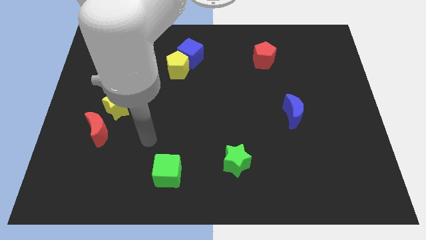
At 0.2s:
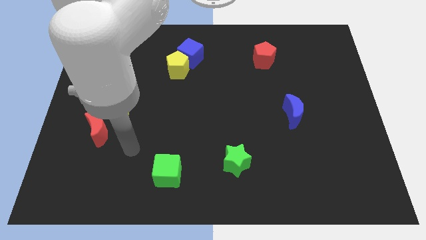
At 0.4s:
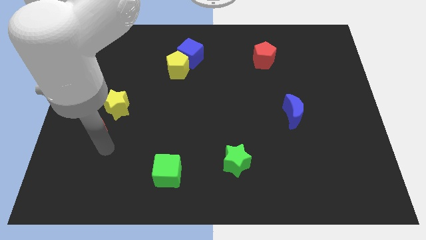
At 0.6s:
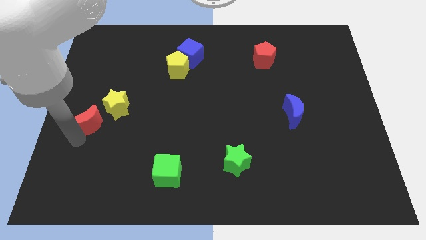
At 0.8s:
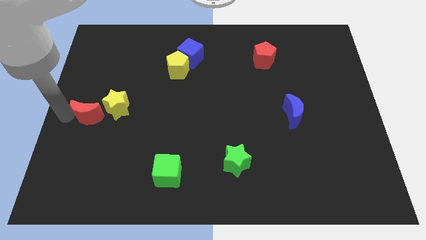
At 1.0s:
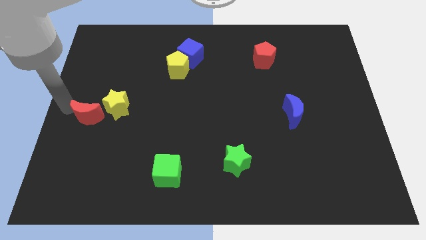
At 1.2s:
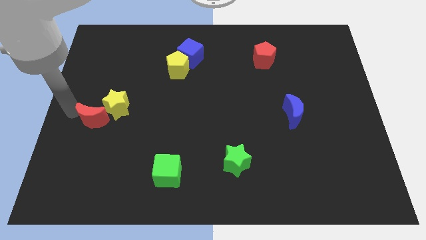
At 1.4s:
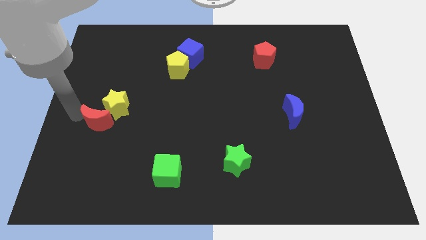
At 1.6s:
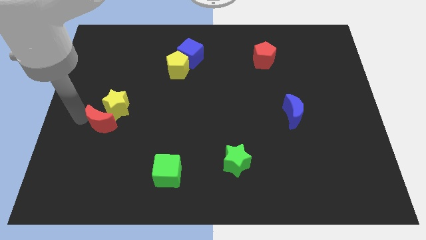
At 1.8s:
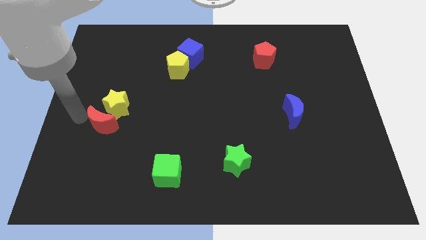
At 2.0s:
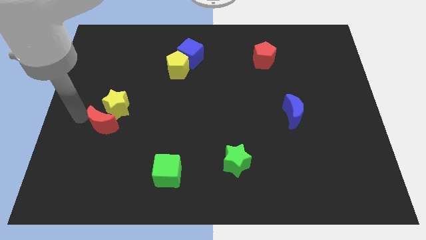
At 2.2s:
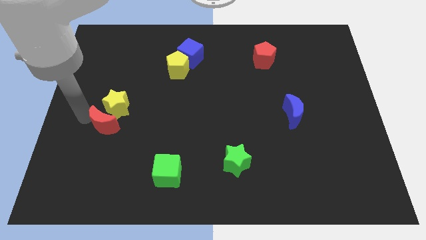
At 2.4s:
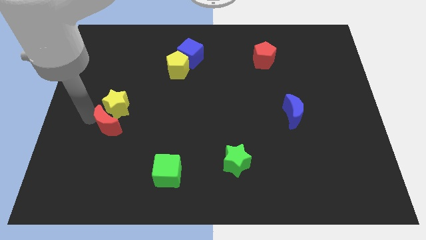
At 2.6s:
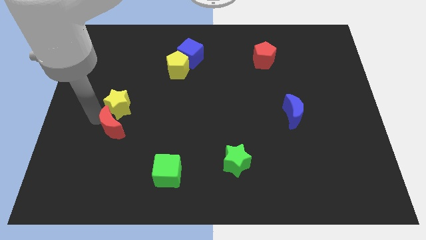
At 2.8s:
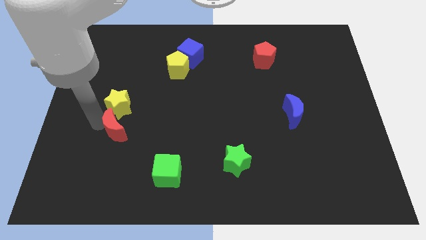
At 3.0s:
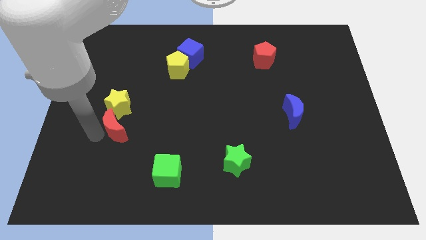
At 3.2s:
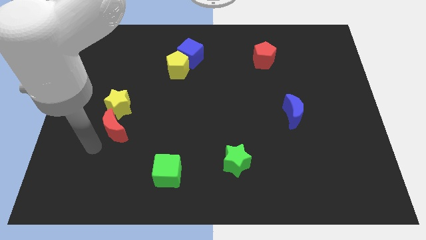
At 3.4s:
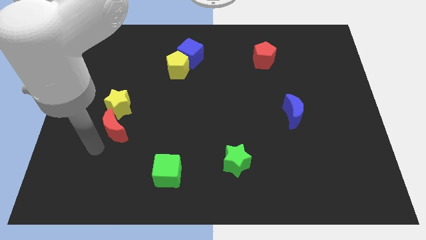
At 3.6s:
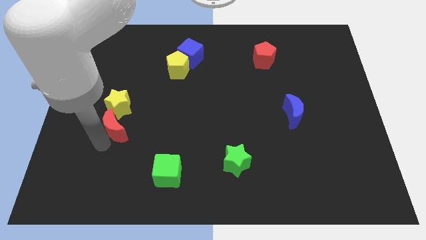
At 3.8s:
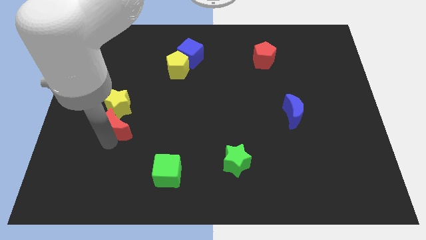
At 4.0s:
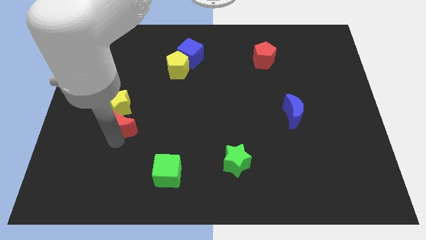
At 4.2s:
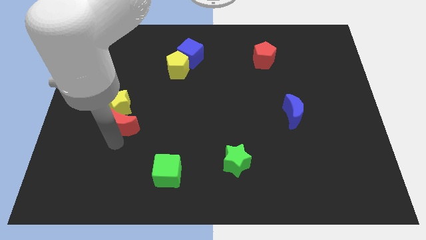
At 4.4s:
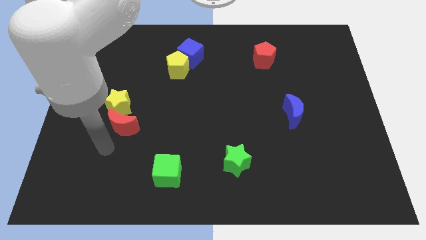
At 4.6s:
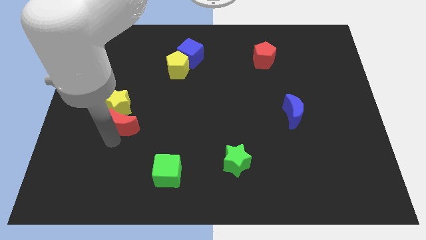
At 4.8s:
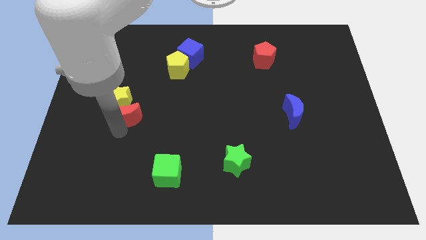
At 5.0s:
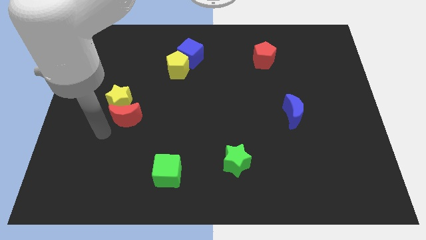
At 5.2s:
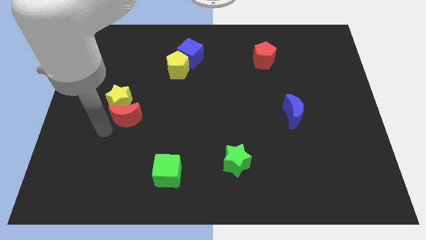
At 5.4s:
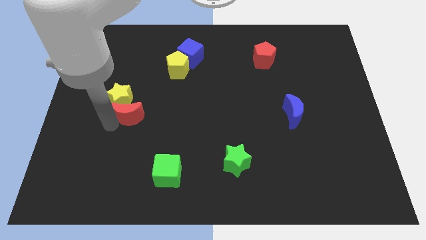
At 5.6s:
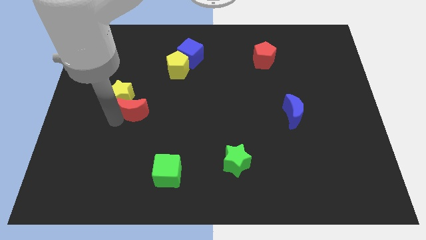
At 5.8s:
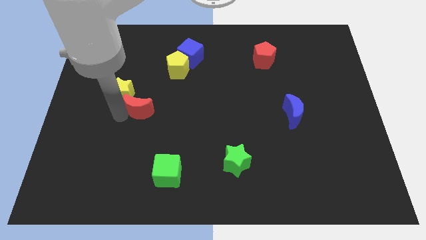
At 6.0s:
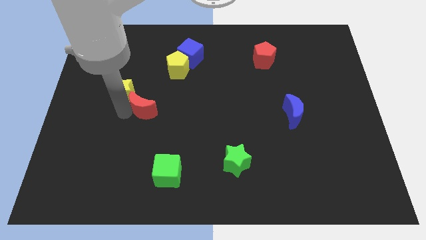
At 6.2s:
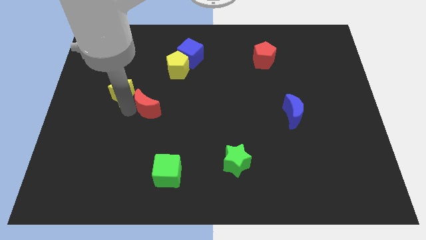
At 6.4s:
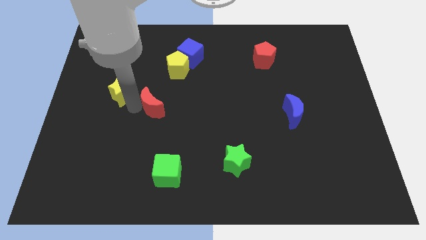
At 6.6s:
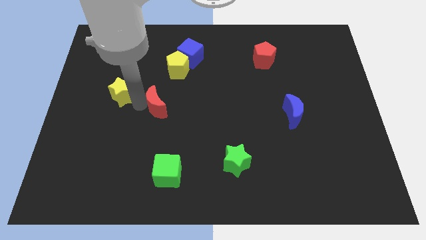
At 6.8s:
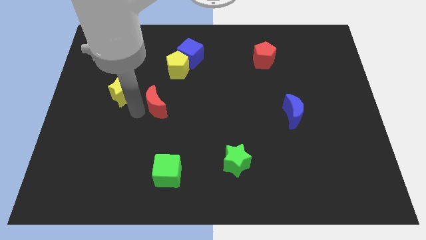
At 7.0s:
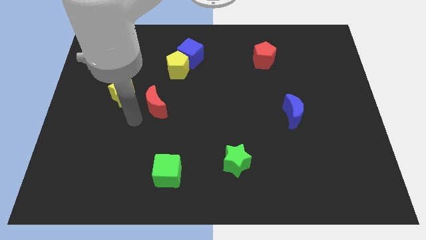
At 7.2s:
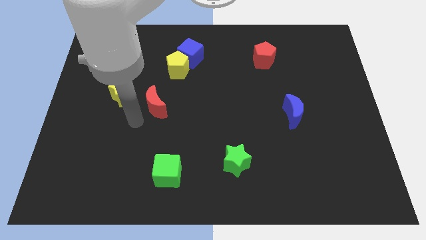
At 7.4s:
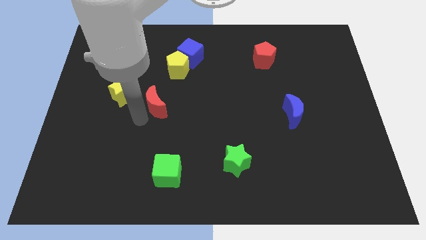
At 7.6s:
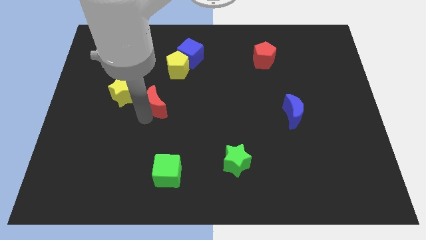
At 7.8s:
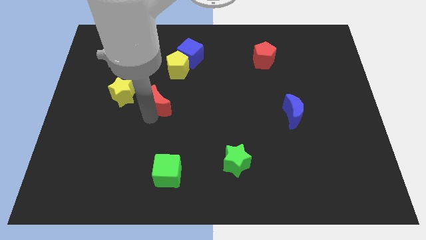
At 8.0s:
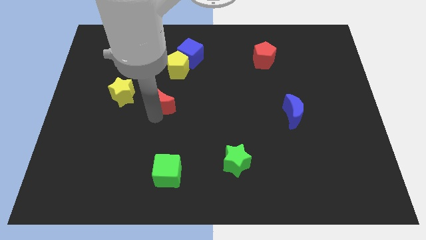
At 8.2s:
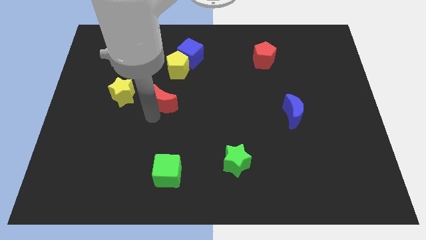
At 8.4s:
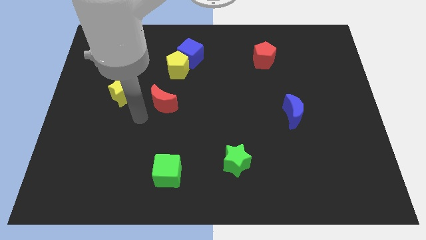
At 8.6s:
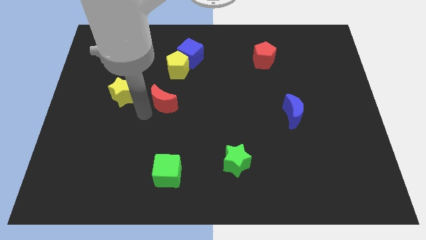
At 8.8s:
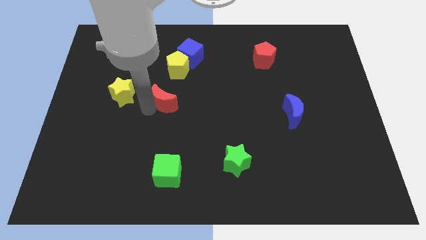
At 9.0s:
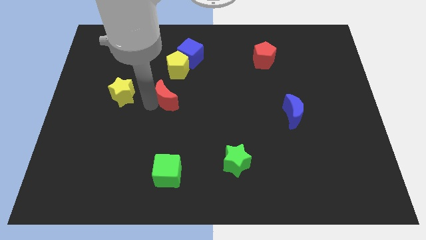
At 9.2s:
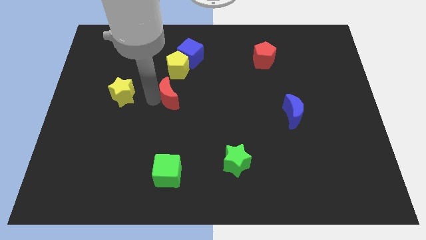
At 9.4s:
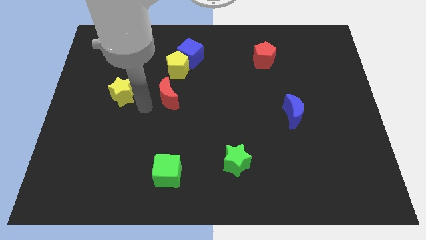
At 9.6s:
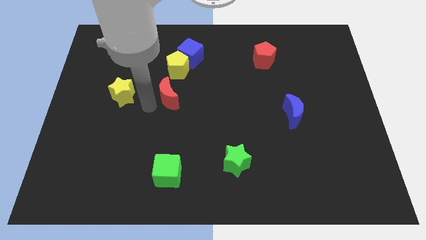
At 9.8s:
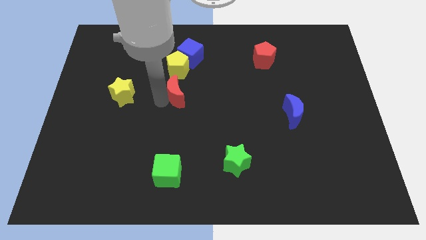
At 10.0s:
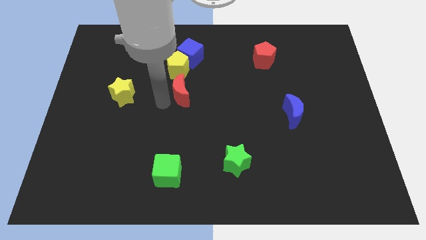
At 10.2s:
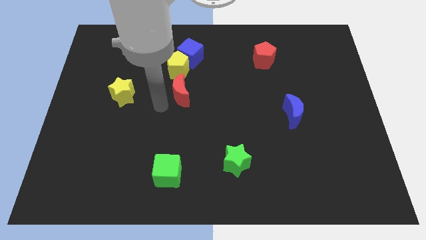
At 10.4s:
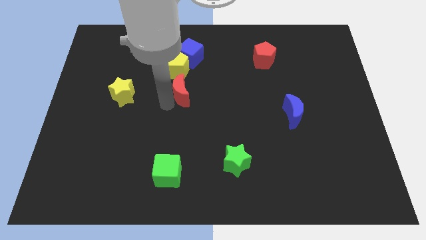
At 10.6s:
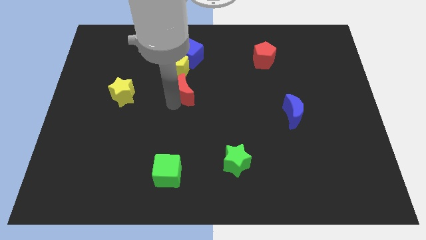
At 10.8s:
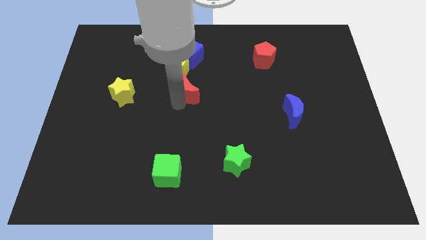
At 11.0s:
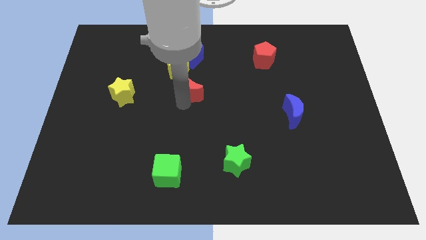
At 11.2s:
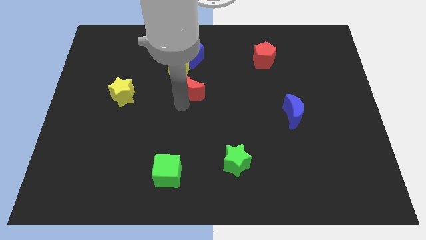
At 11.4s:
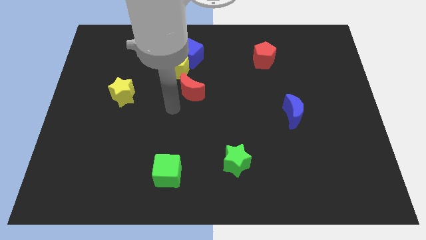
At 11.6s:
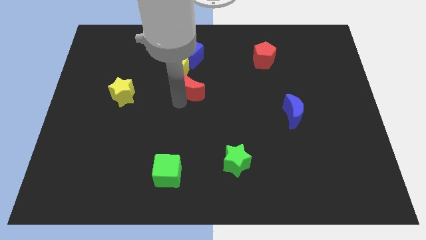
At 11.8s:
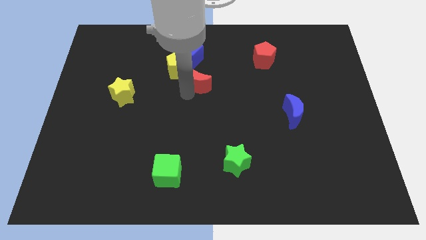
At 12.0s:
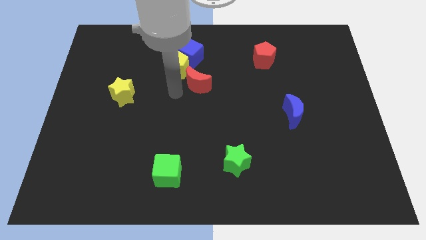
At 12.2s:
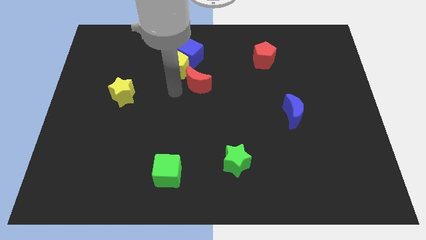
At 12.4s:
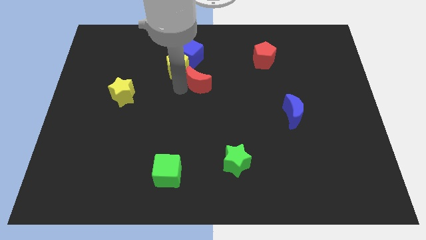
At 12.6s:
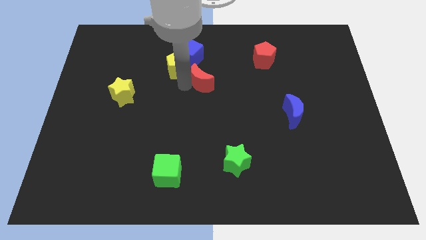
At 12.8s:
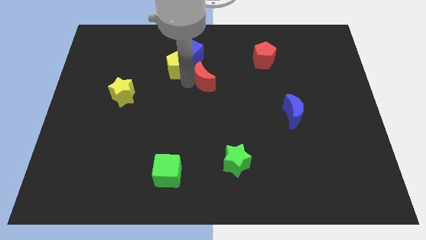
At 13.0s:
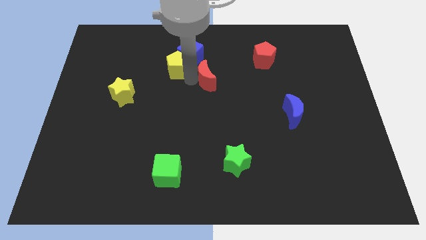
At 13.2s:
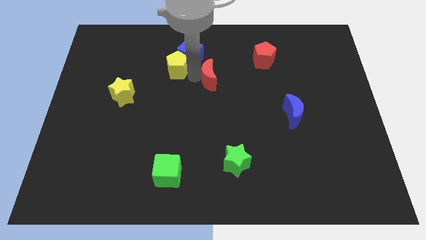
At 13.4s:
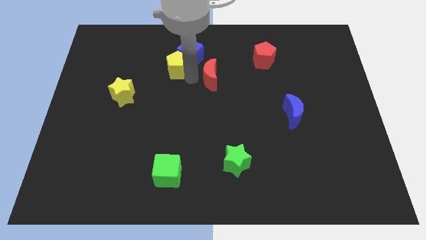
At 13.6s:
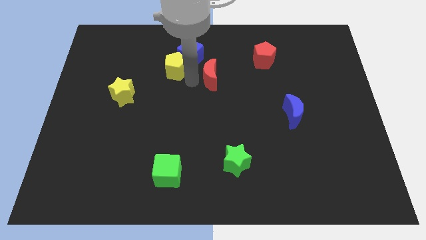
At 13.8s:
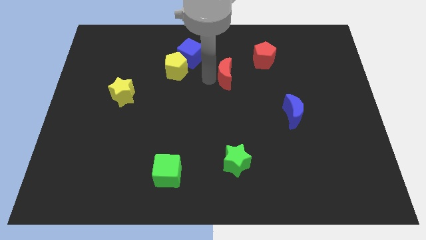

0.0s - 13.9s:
move the red moon diagonally down and to the left of the red pentagon
